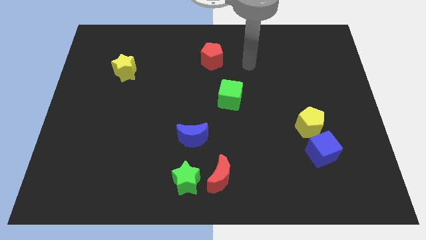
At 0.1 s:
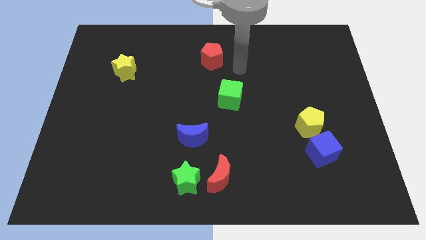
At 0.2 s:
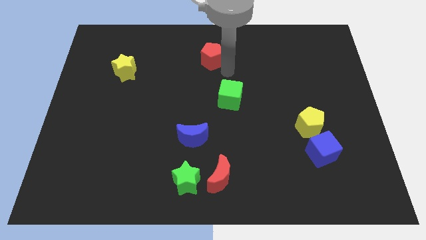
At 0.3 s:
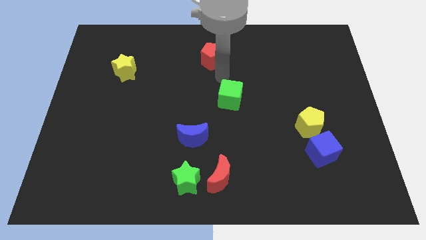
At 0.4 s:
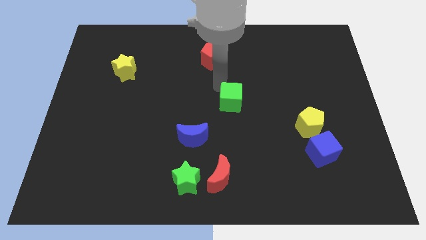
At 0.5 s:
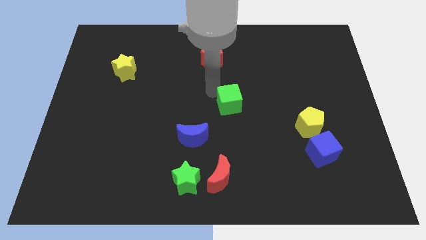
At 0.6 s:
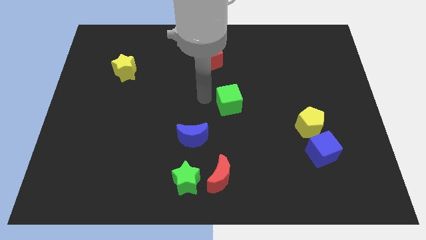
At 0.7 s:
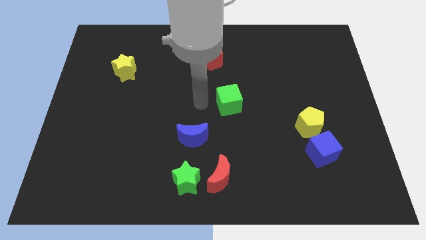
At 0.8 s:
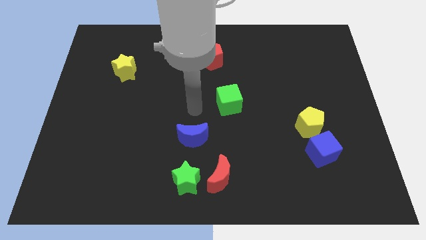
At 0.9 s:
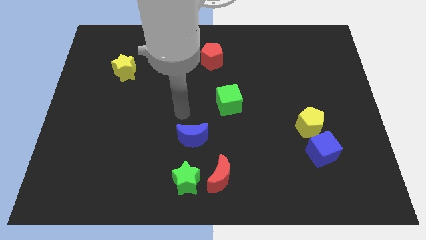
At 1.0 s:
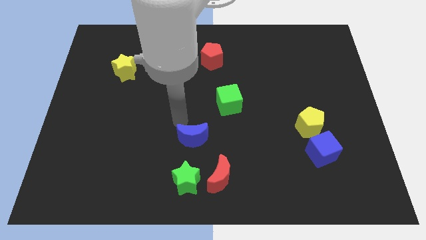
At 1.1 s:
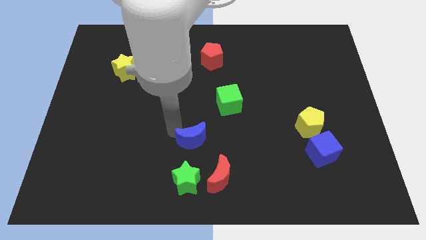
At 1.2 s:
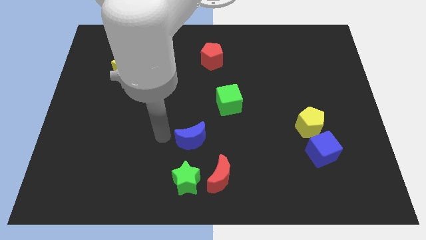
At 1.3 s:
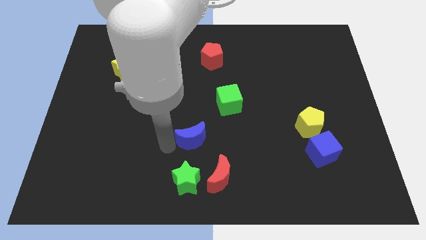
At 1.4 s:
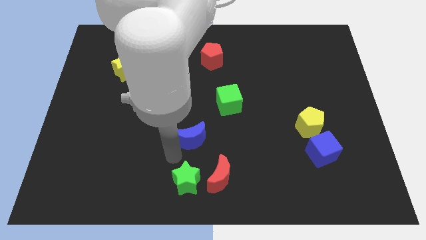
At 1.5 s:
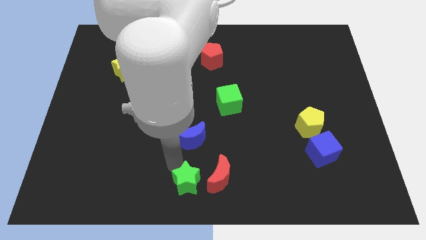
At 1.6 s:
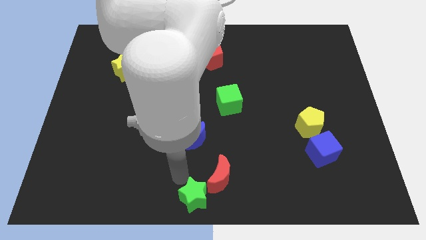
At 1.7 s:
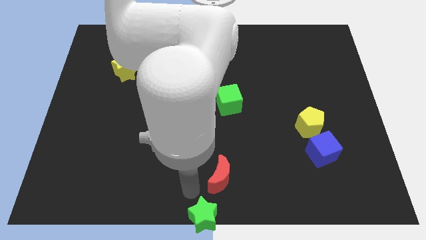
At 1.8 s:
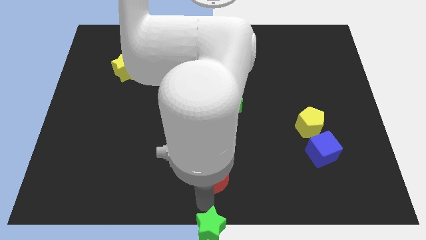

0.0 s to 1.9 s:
separate the red moon from the green star

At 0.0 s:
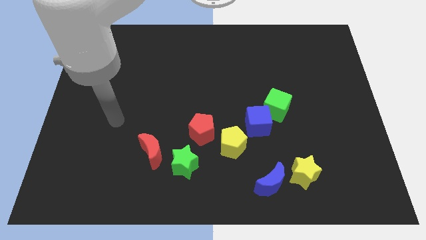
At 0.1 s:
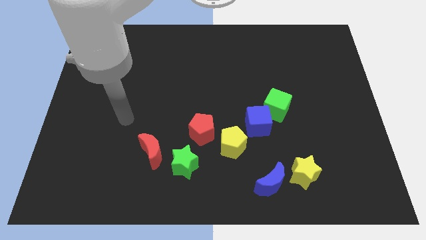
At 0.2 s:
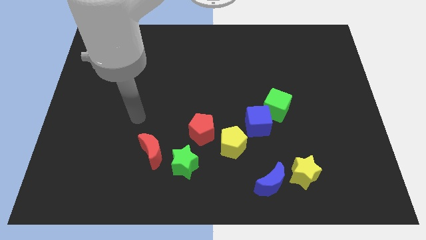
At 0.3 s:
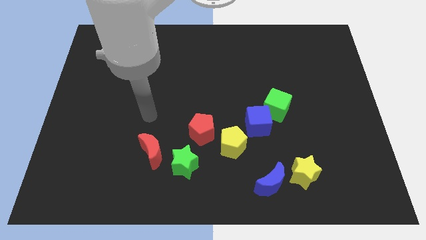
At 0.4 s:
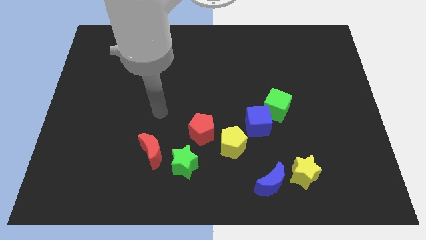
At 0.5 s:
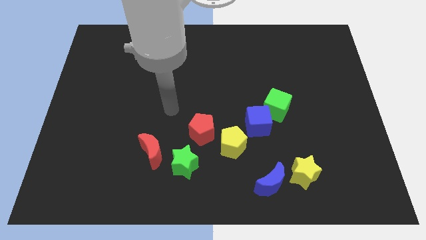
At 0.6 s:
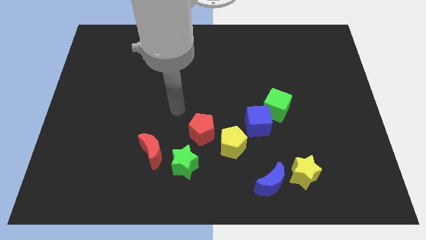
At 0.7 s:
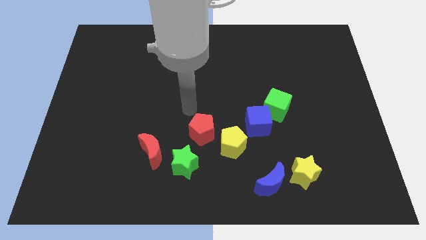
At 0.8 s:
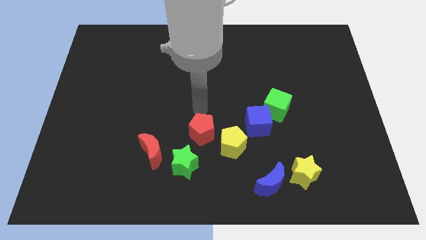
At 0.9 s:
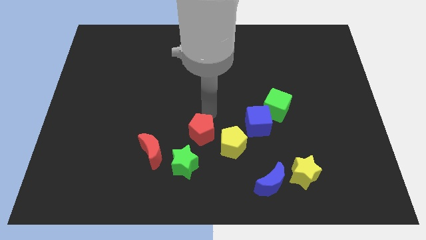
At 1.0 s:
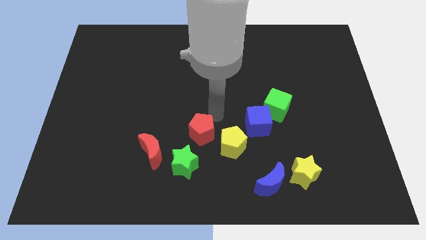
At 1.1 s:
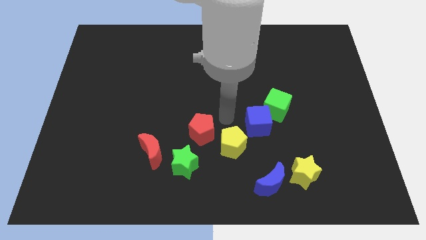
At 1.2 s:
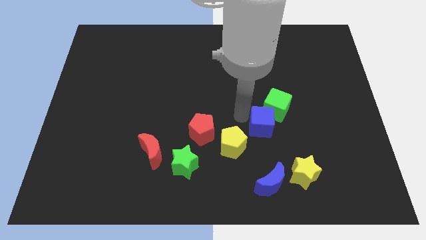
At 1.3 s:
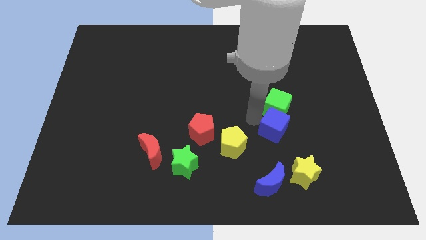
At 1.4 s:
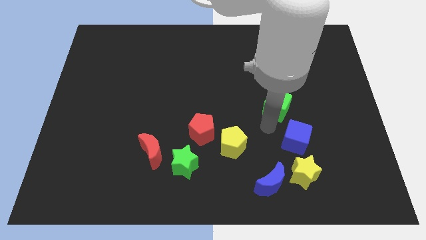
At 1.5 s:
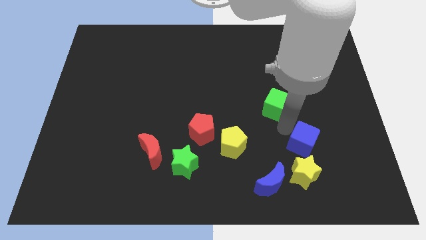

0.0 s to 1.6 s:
separate the green cube from the blue cube

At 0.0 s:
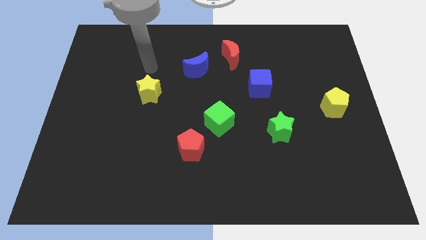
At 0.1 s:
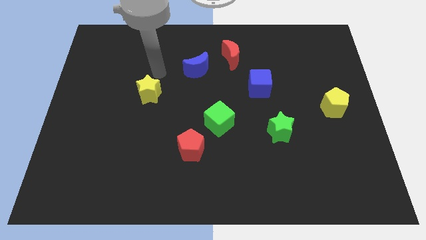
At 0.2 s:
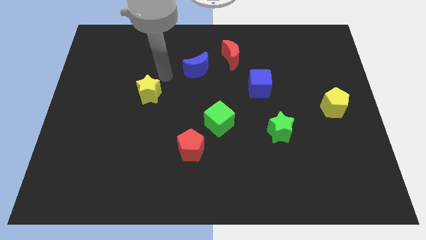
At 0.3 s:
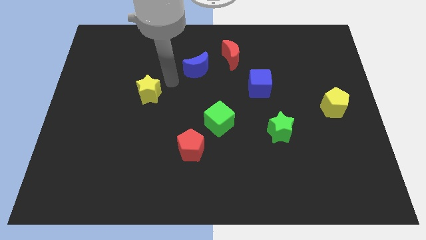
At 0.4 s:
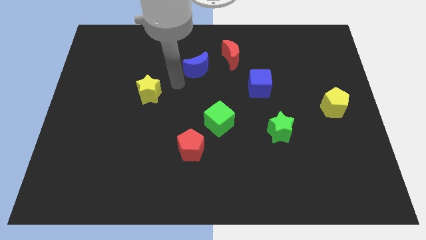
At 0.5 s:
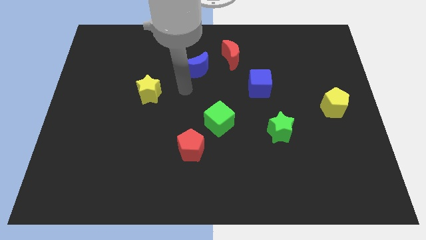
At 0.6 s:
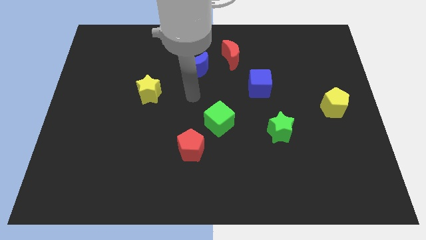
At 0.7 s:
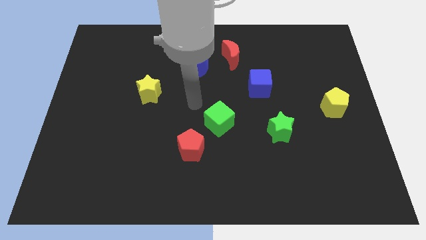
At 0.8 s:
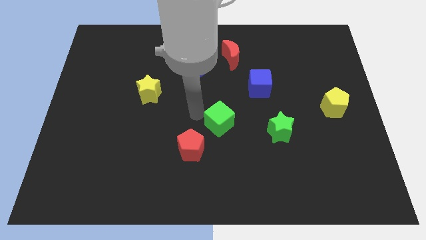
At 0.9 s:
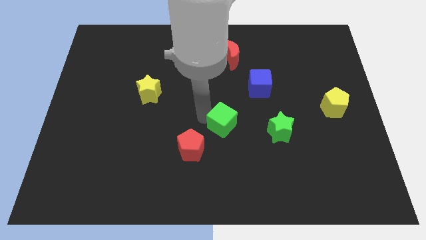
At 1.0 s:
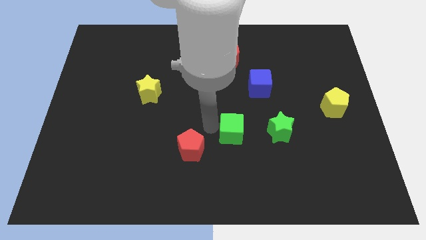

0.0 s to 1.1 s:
pull the red pentagon apart from the green cube

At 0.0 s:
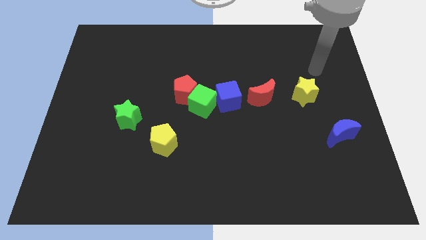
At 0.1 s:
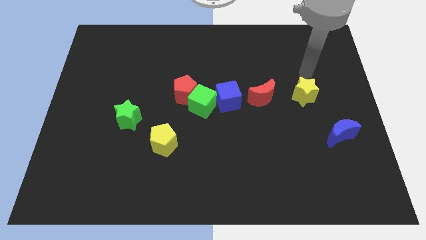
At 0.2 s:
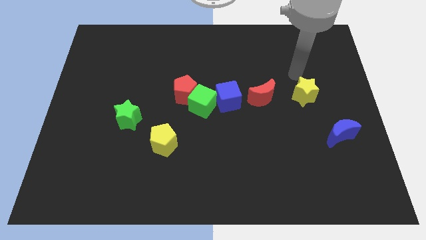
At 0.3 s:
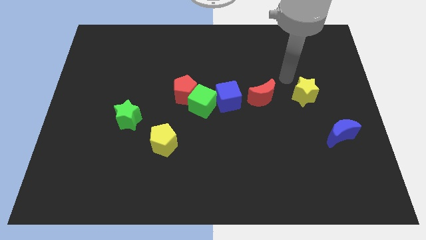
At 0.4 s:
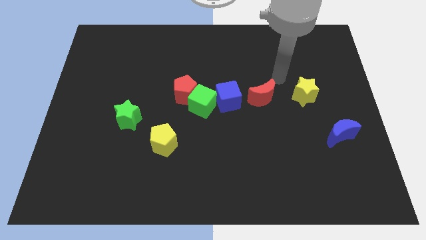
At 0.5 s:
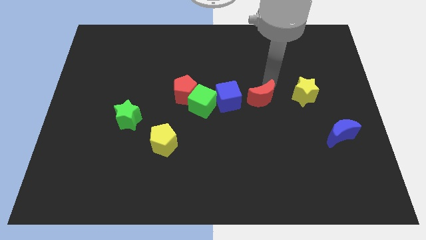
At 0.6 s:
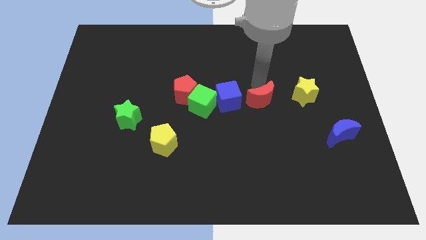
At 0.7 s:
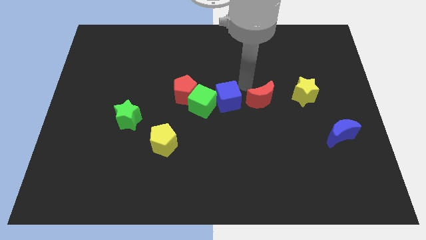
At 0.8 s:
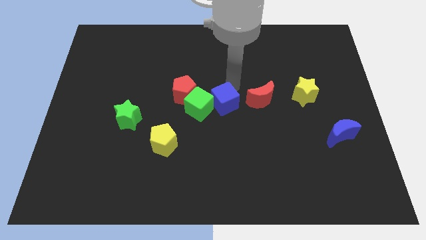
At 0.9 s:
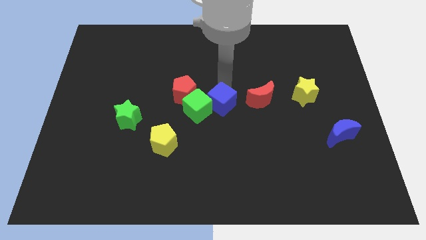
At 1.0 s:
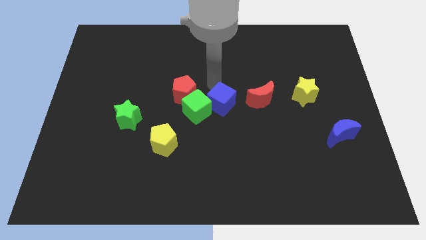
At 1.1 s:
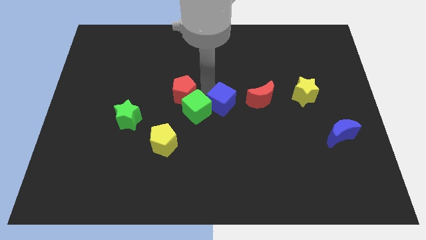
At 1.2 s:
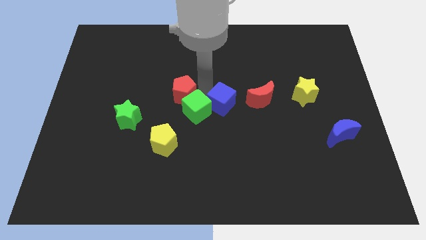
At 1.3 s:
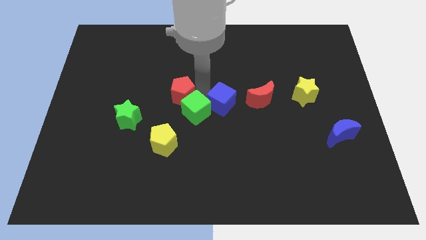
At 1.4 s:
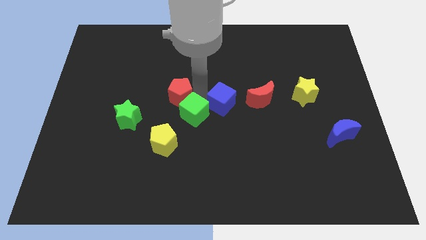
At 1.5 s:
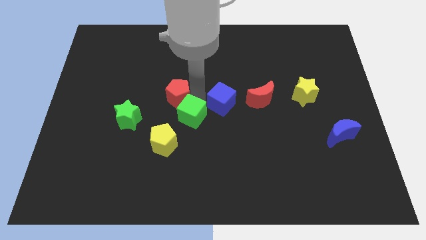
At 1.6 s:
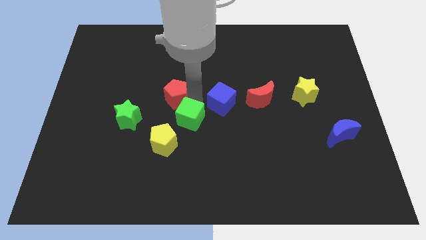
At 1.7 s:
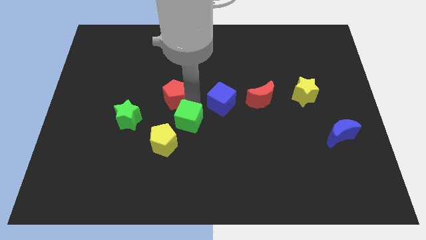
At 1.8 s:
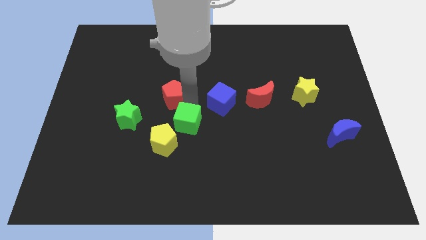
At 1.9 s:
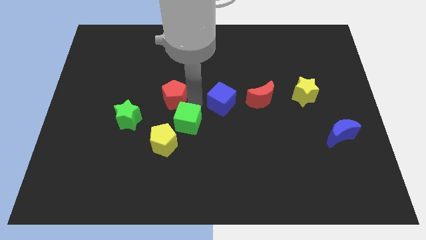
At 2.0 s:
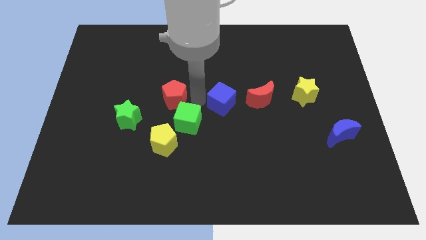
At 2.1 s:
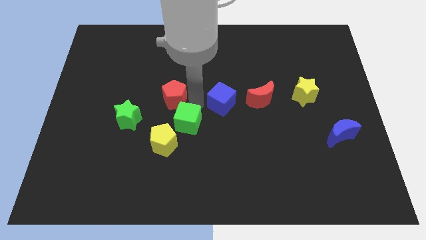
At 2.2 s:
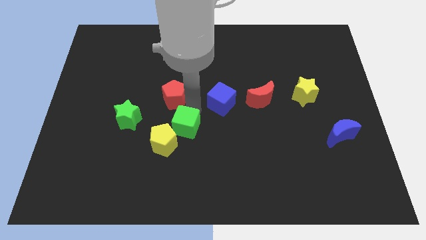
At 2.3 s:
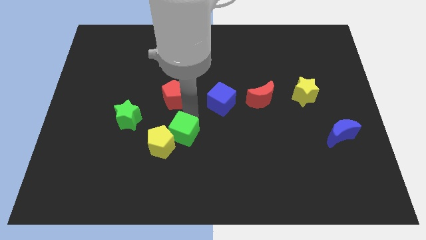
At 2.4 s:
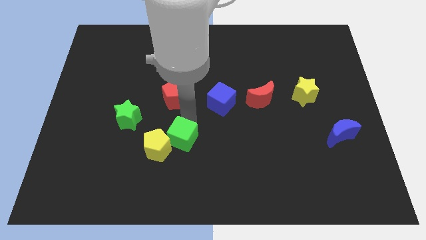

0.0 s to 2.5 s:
pull the green cube apart from the red pentagon and blue cube

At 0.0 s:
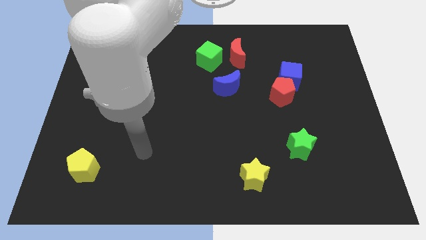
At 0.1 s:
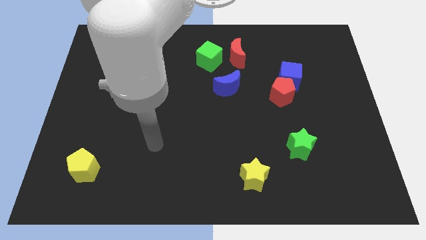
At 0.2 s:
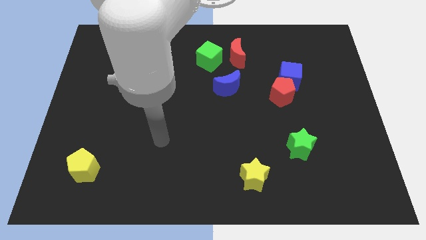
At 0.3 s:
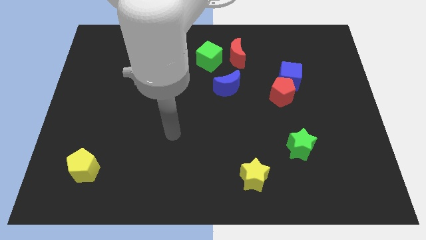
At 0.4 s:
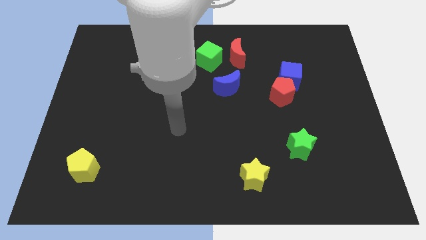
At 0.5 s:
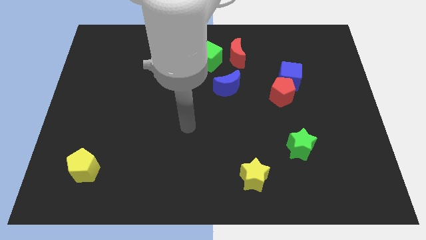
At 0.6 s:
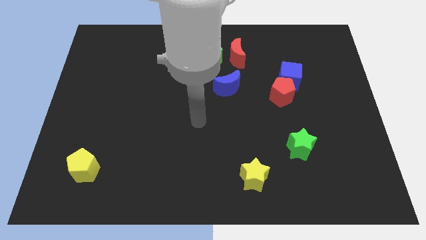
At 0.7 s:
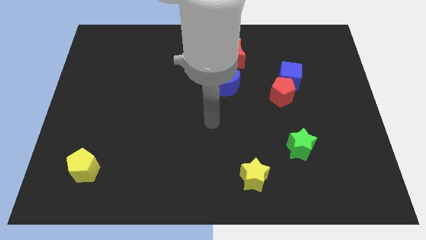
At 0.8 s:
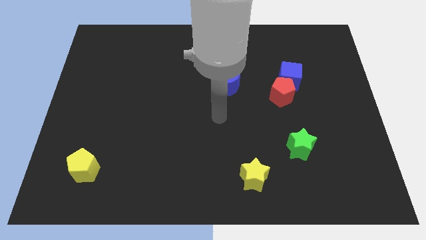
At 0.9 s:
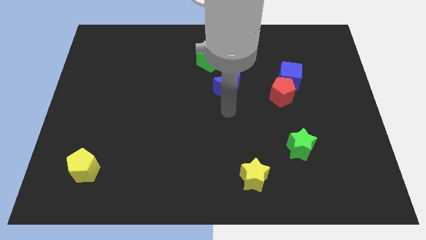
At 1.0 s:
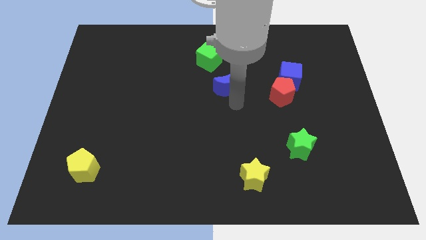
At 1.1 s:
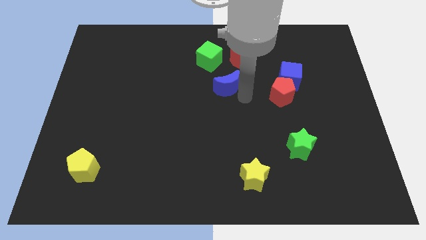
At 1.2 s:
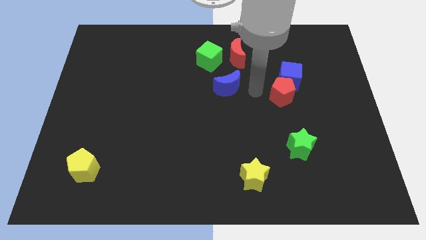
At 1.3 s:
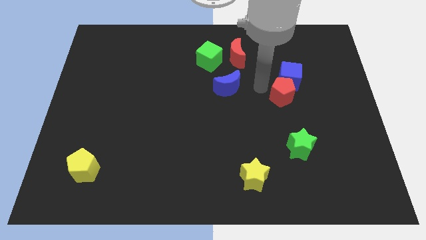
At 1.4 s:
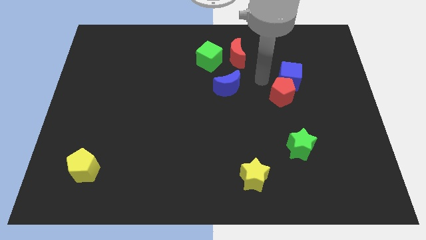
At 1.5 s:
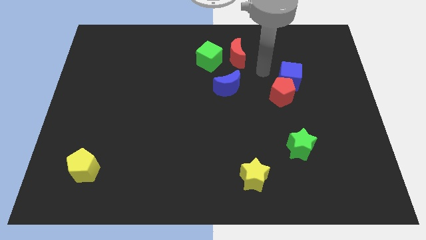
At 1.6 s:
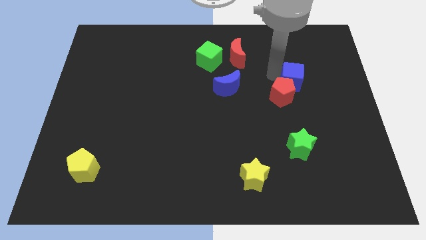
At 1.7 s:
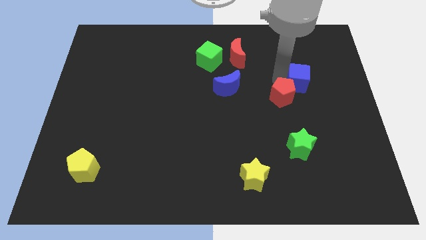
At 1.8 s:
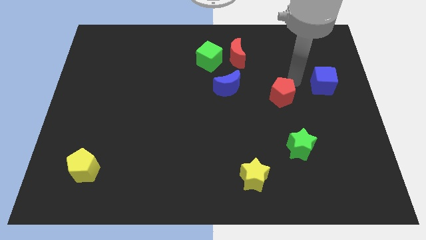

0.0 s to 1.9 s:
separate the red pentagon from the blue cube

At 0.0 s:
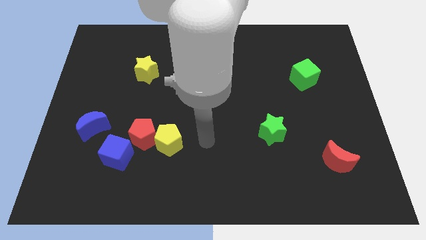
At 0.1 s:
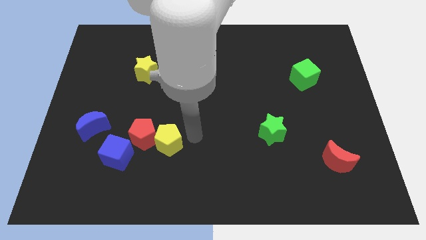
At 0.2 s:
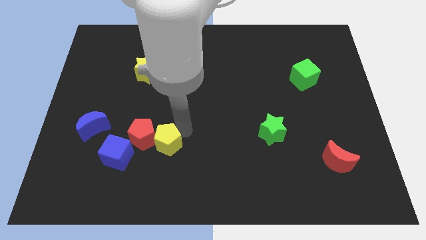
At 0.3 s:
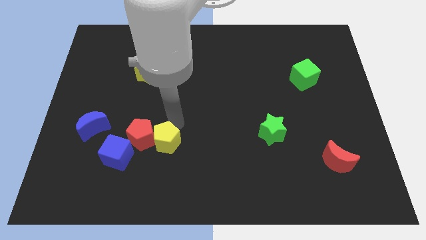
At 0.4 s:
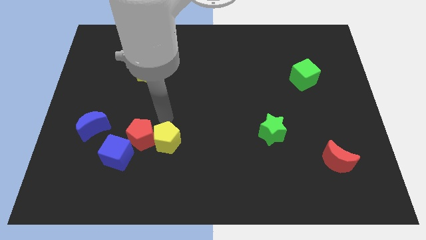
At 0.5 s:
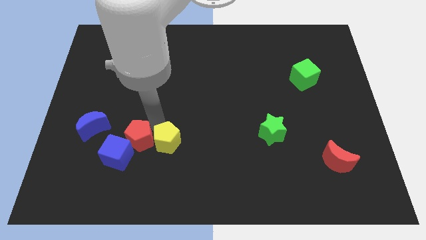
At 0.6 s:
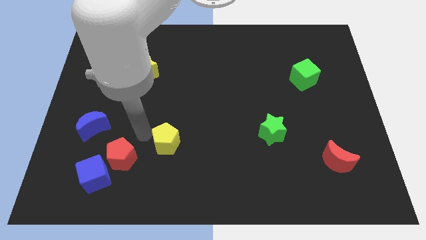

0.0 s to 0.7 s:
separate the yellow pentagon from the red pentagon
